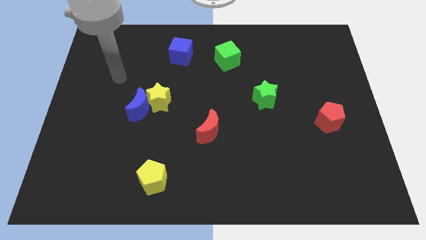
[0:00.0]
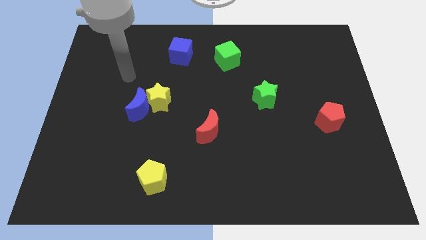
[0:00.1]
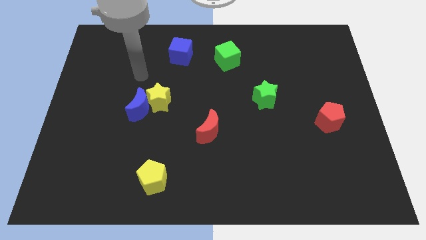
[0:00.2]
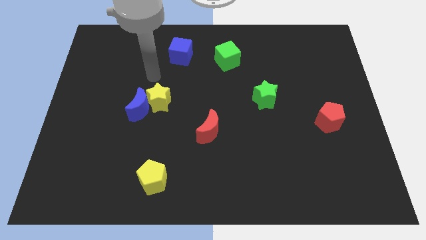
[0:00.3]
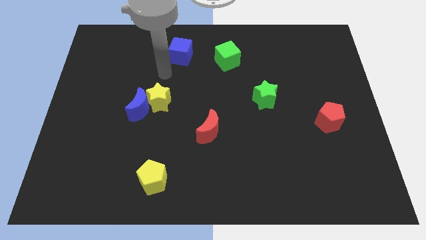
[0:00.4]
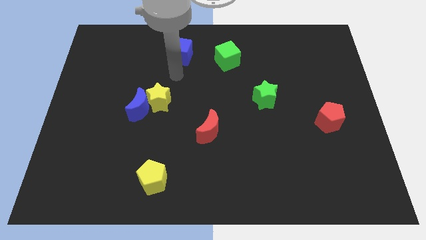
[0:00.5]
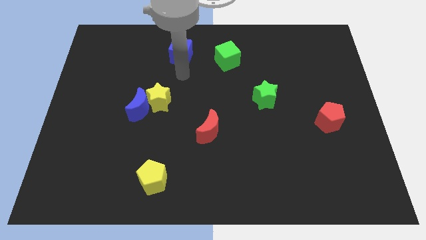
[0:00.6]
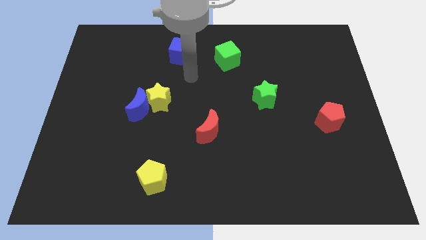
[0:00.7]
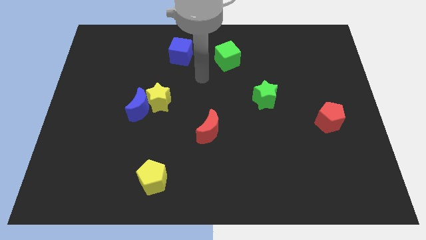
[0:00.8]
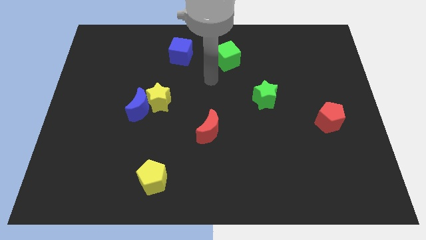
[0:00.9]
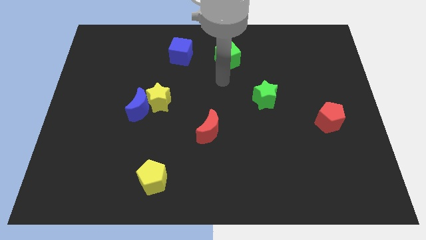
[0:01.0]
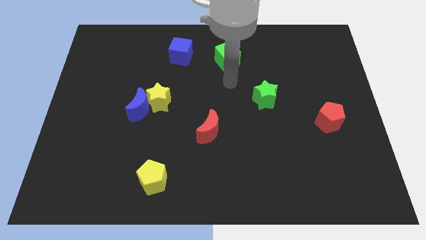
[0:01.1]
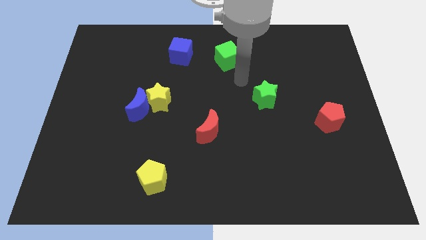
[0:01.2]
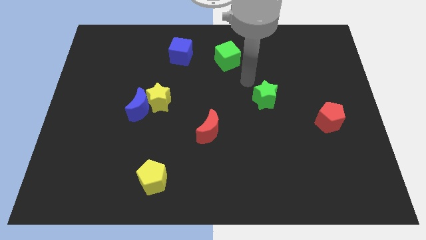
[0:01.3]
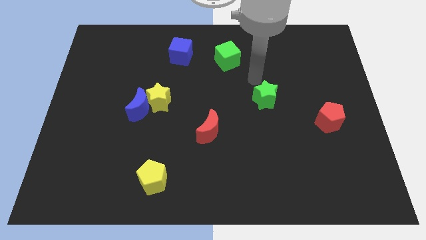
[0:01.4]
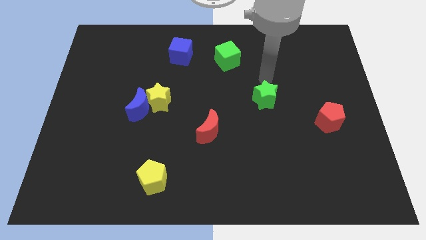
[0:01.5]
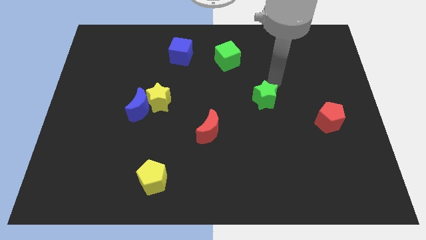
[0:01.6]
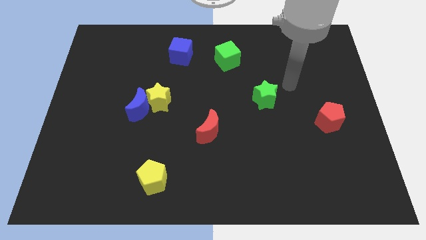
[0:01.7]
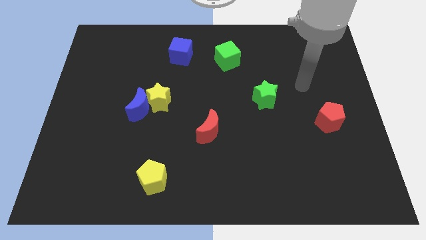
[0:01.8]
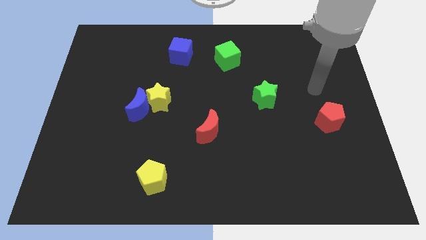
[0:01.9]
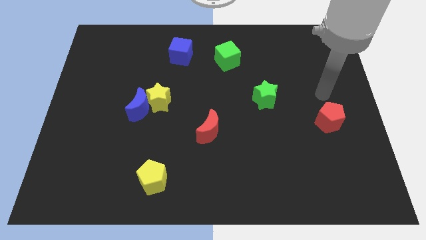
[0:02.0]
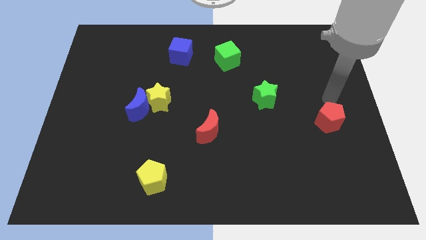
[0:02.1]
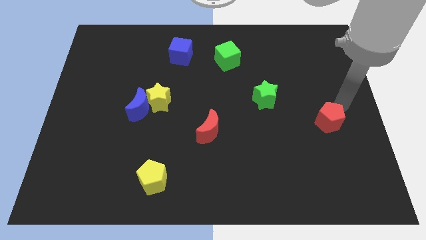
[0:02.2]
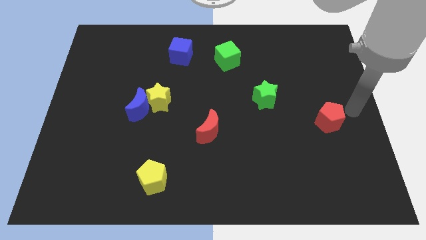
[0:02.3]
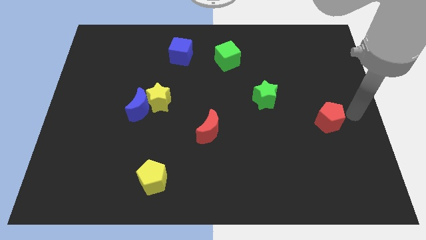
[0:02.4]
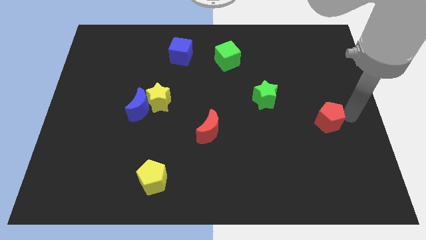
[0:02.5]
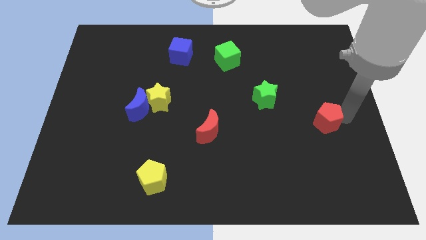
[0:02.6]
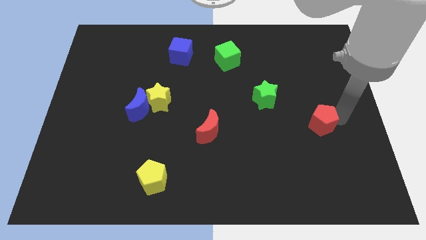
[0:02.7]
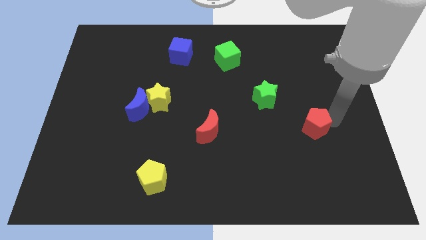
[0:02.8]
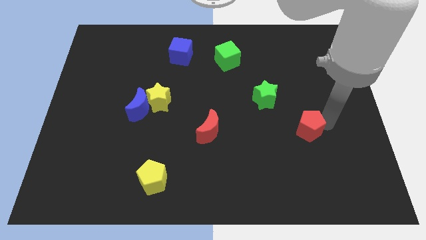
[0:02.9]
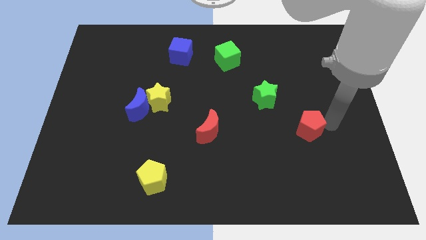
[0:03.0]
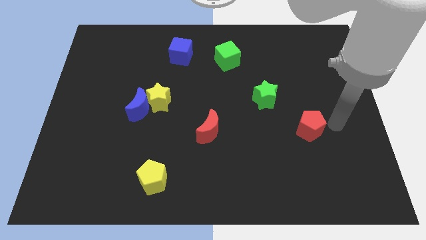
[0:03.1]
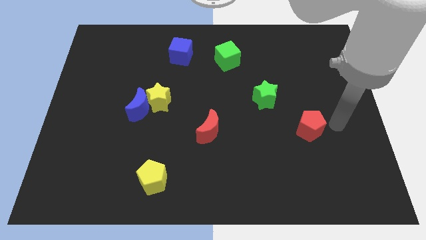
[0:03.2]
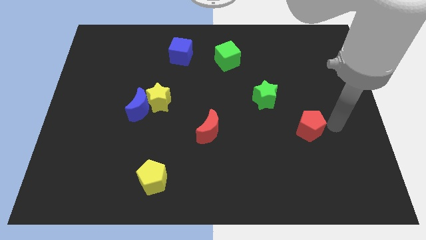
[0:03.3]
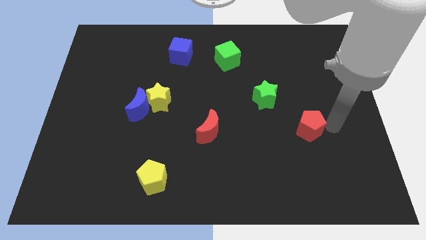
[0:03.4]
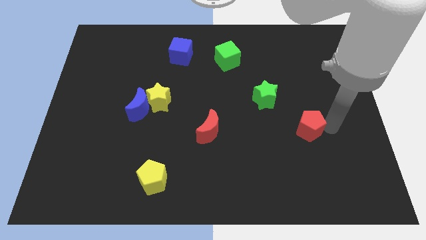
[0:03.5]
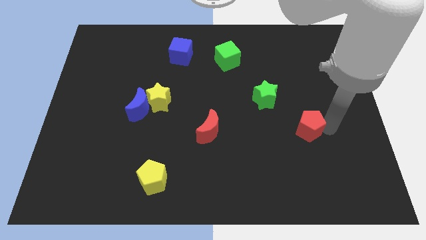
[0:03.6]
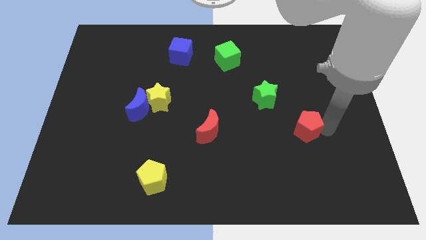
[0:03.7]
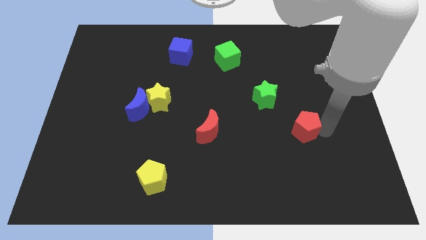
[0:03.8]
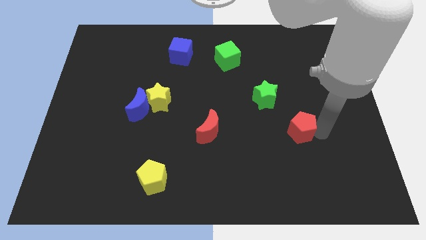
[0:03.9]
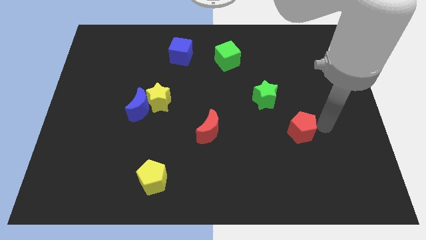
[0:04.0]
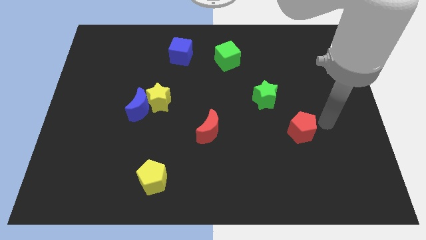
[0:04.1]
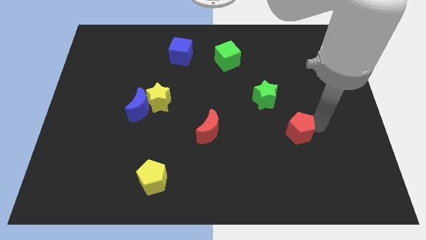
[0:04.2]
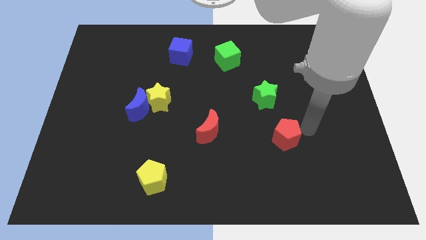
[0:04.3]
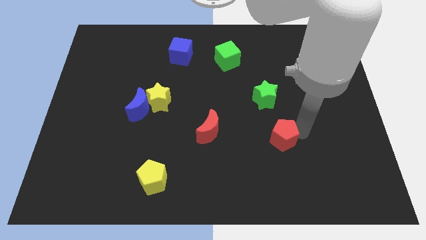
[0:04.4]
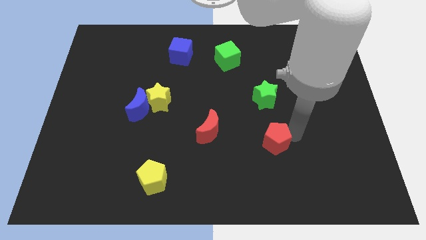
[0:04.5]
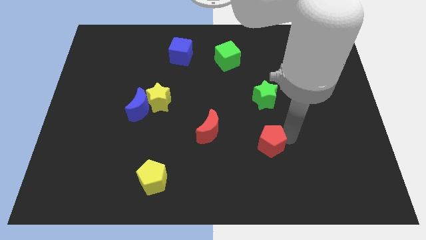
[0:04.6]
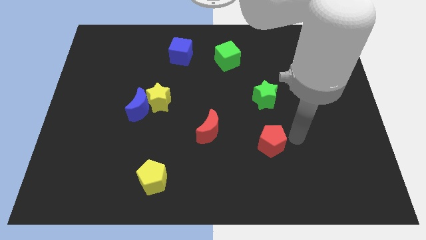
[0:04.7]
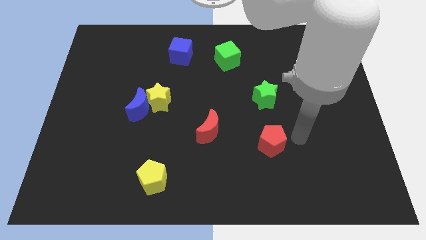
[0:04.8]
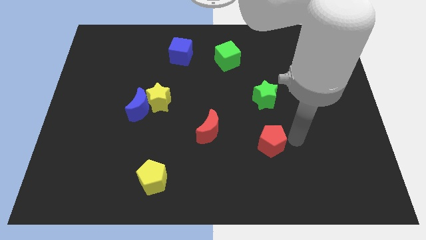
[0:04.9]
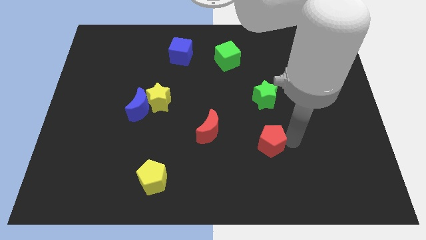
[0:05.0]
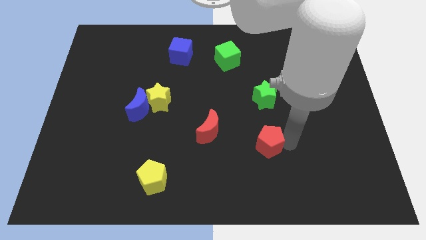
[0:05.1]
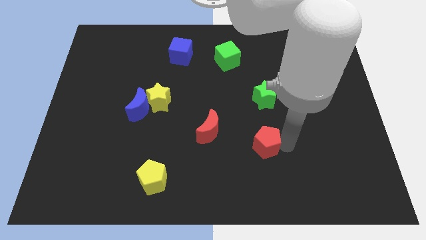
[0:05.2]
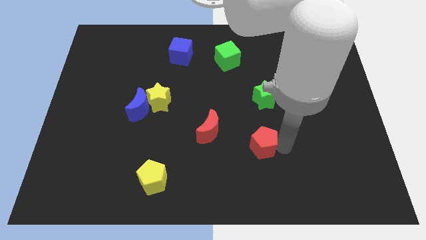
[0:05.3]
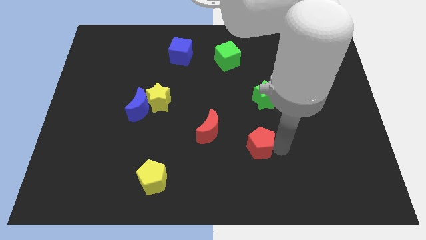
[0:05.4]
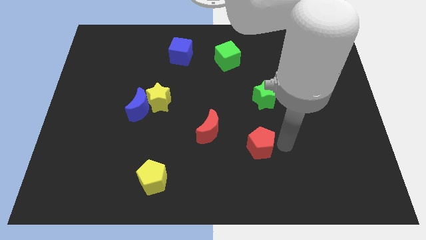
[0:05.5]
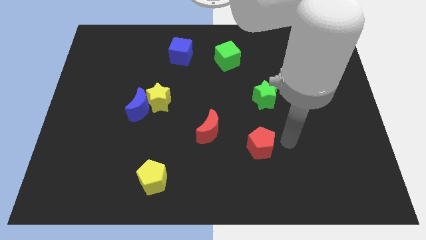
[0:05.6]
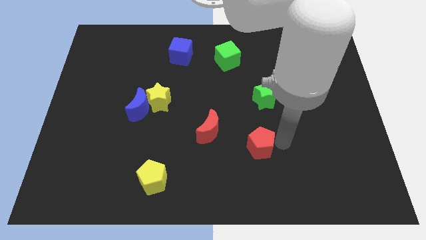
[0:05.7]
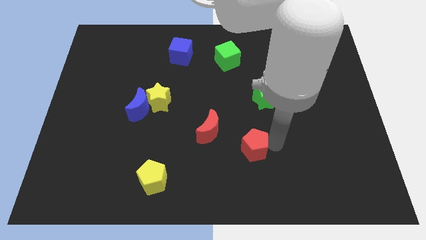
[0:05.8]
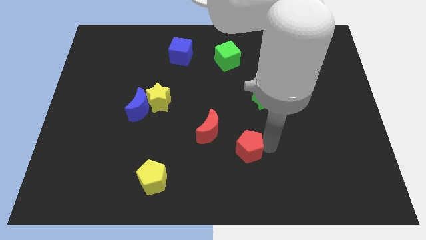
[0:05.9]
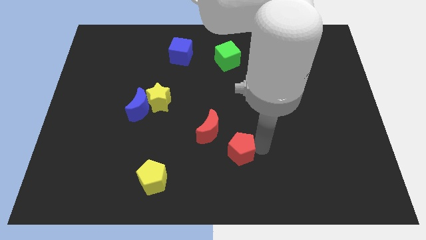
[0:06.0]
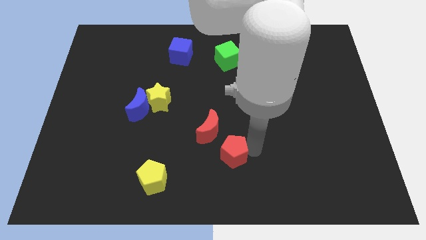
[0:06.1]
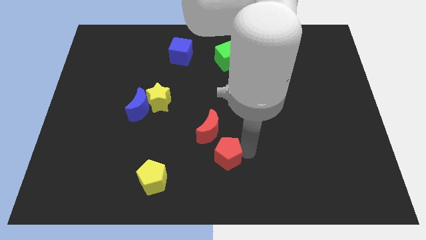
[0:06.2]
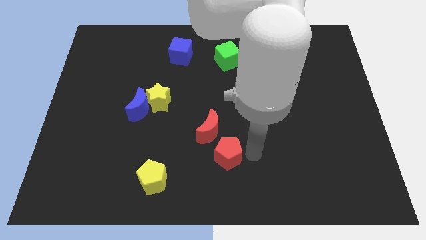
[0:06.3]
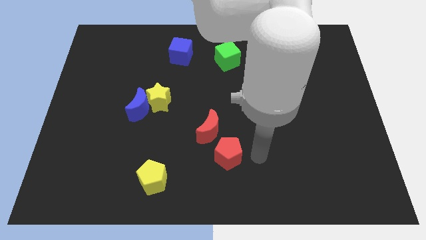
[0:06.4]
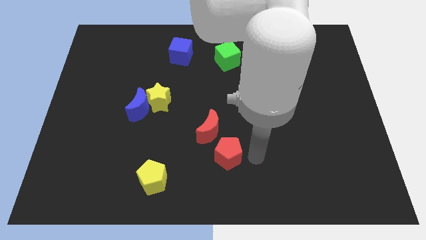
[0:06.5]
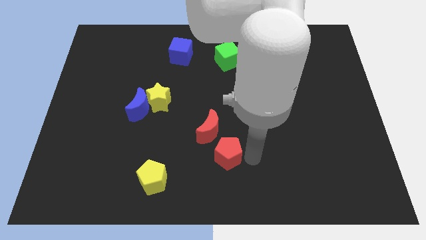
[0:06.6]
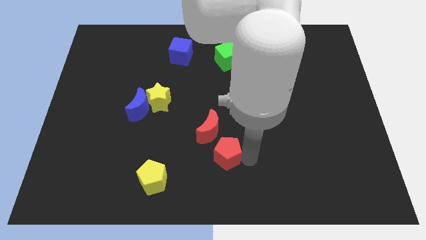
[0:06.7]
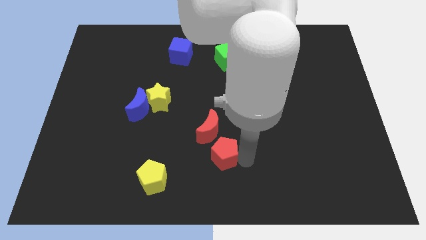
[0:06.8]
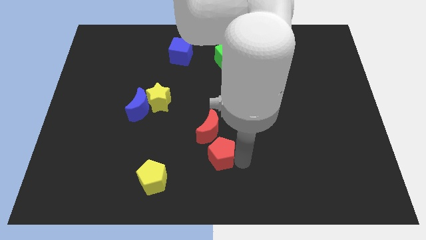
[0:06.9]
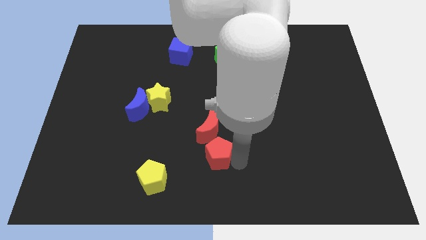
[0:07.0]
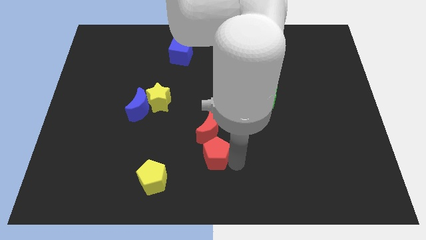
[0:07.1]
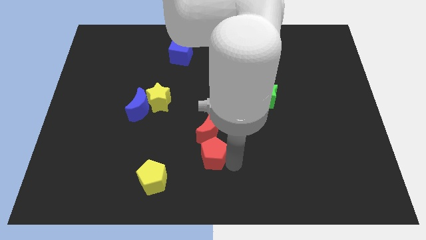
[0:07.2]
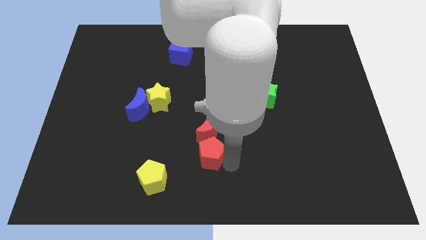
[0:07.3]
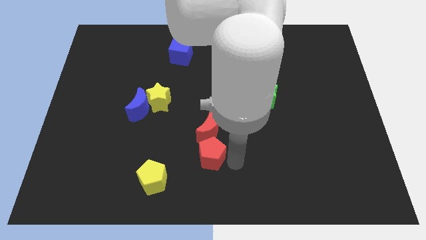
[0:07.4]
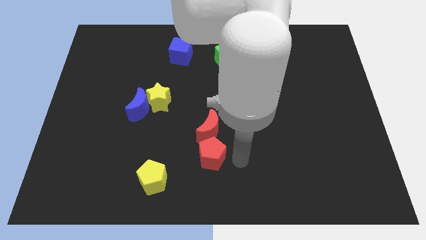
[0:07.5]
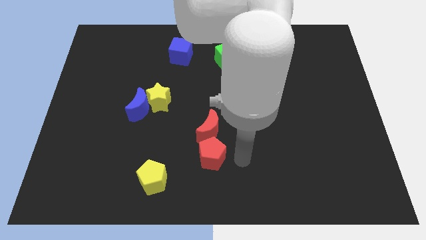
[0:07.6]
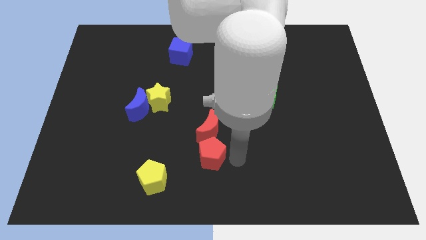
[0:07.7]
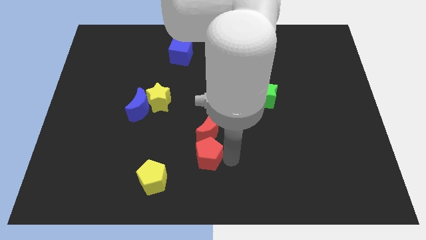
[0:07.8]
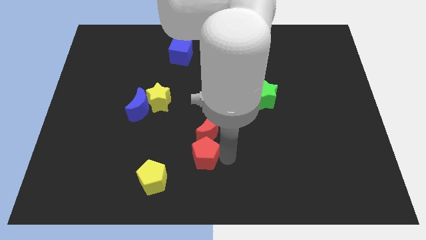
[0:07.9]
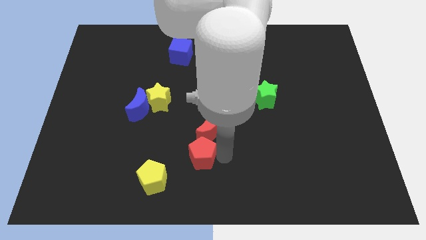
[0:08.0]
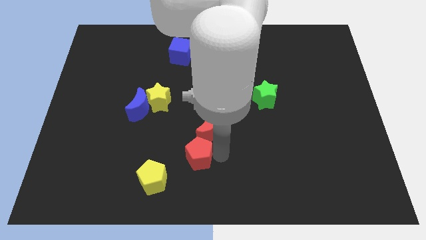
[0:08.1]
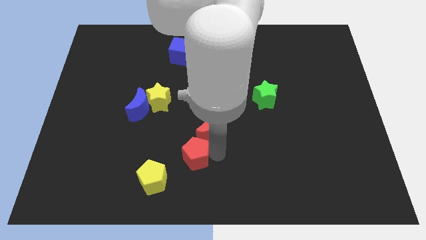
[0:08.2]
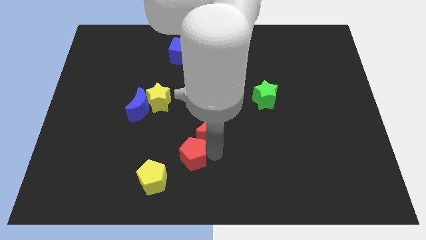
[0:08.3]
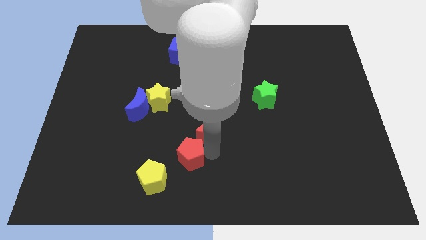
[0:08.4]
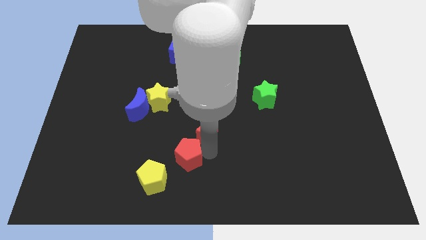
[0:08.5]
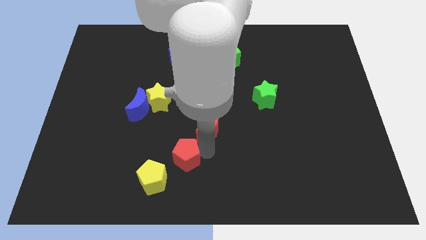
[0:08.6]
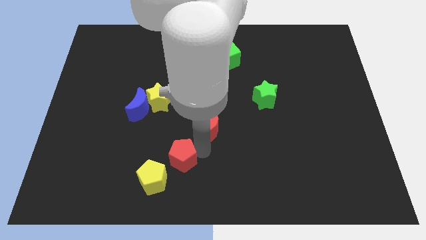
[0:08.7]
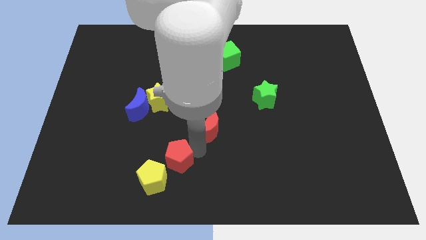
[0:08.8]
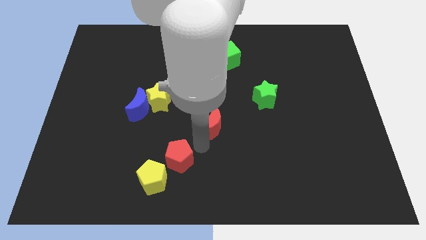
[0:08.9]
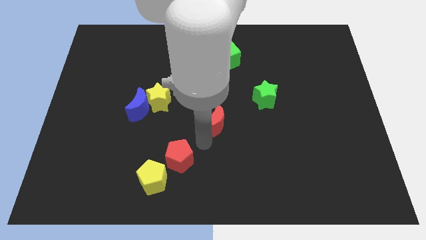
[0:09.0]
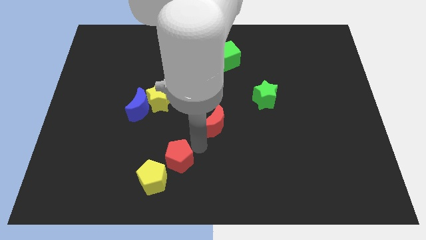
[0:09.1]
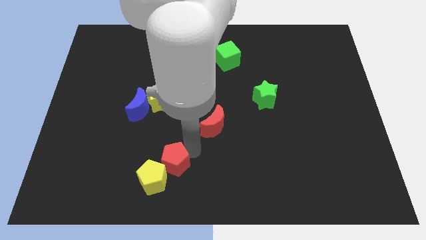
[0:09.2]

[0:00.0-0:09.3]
slide the red pentagon next to the yellow pentagon
